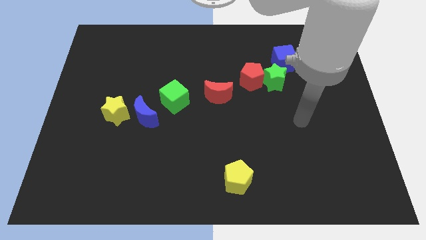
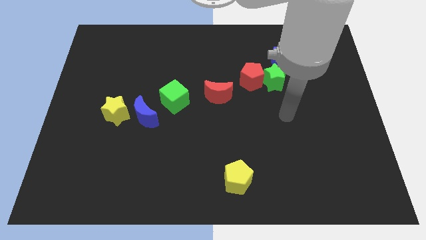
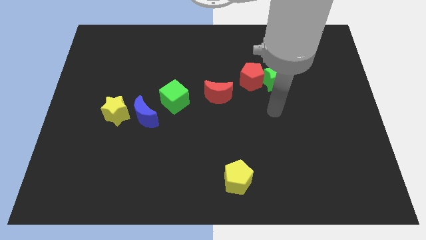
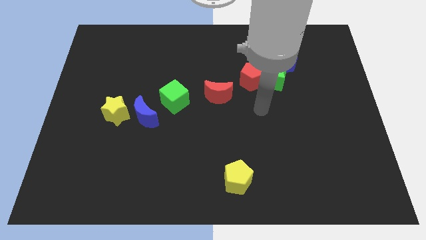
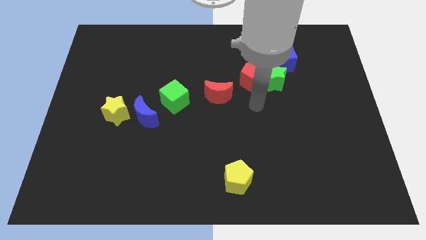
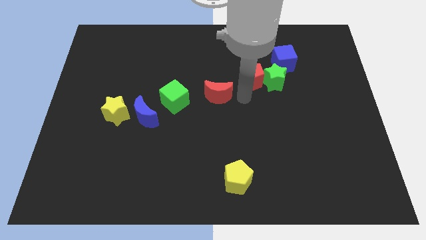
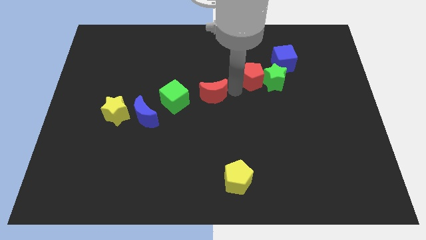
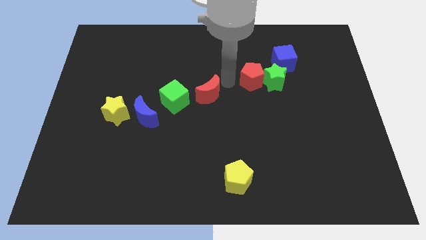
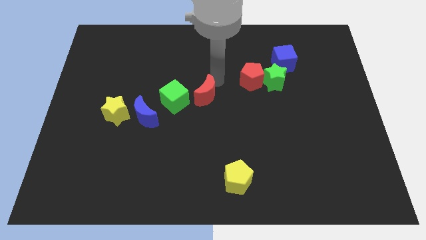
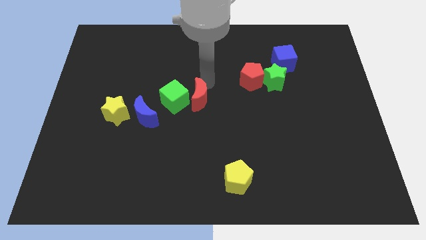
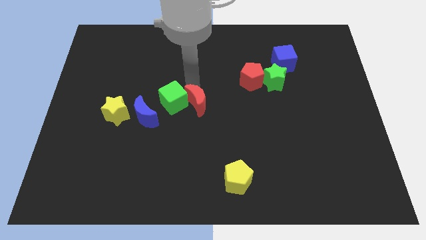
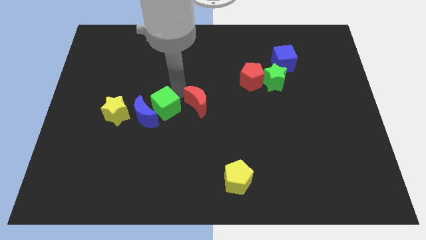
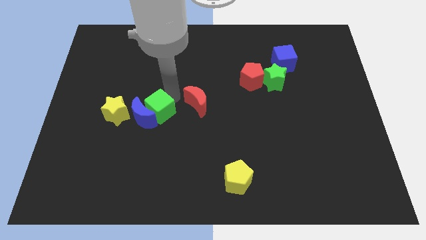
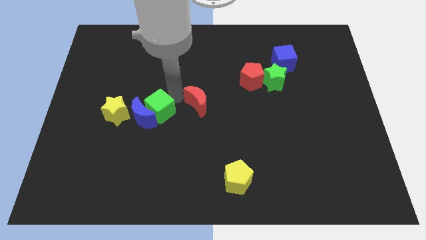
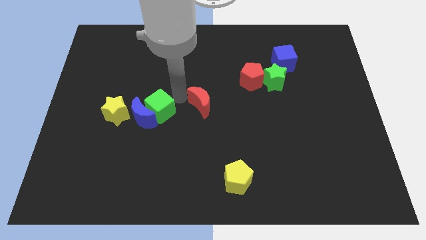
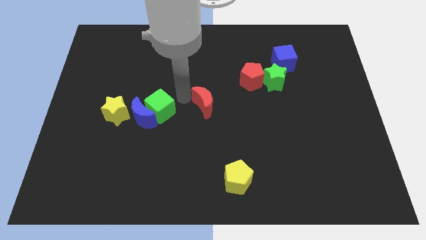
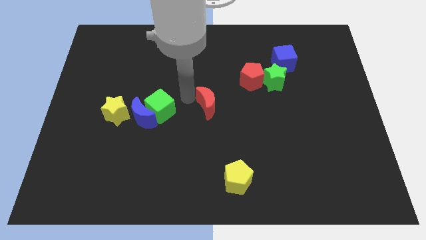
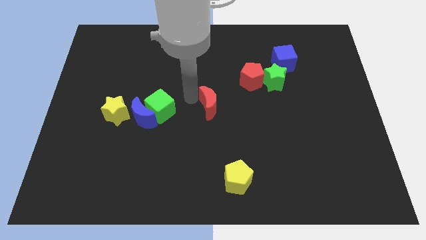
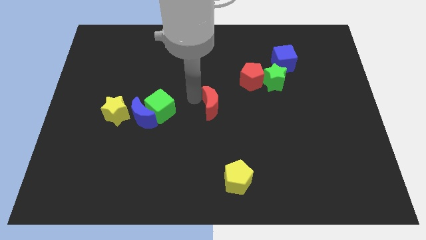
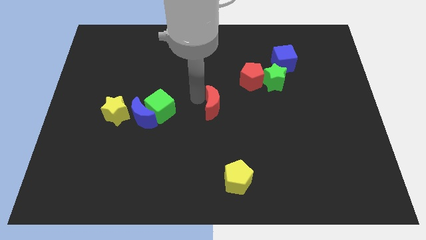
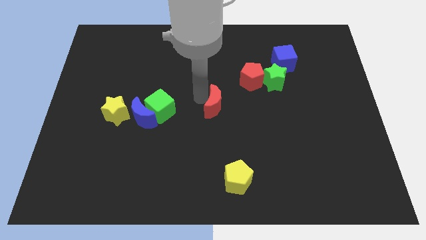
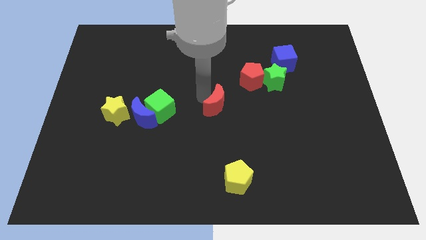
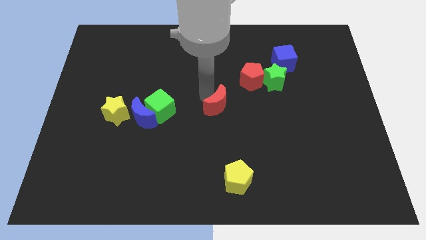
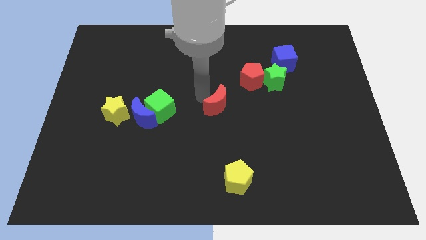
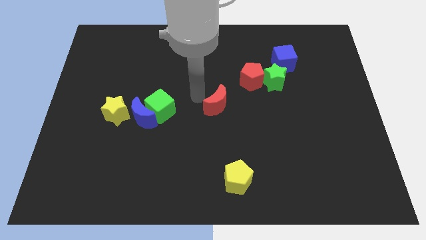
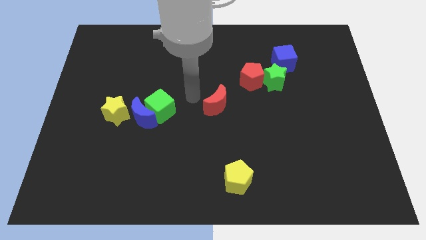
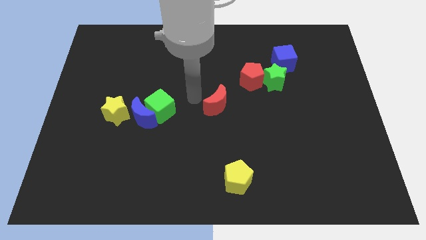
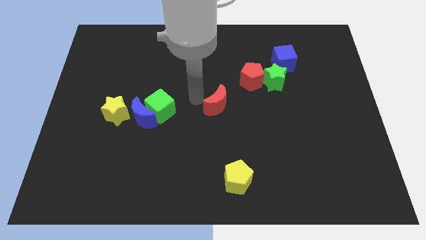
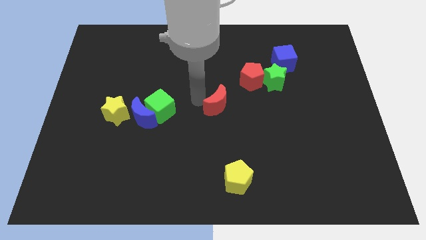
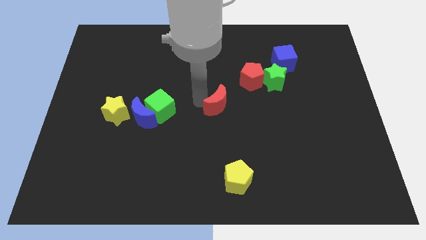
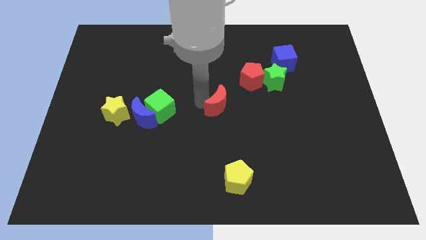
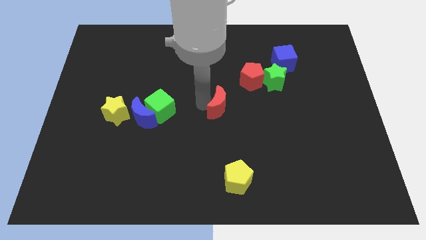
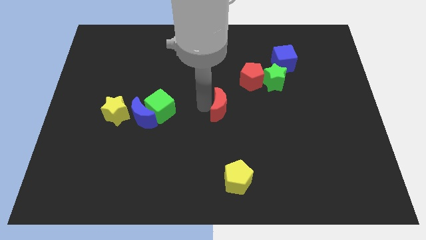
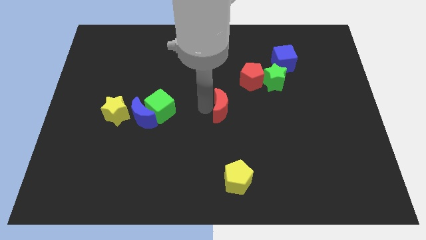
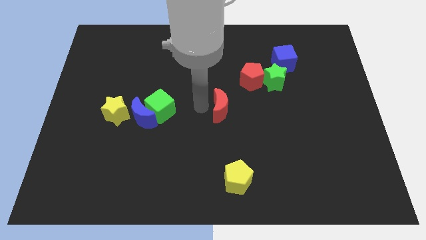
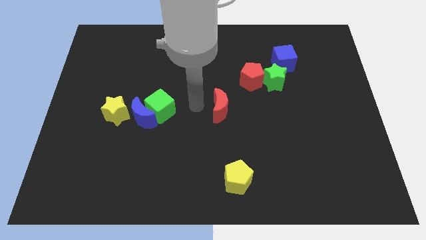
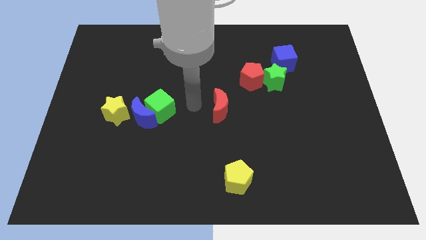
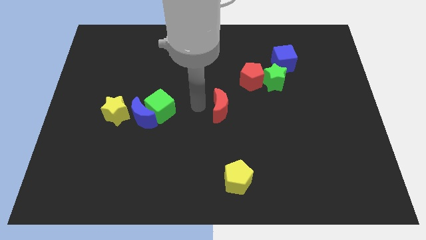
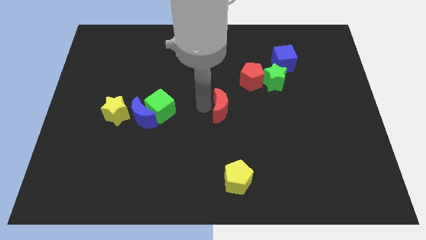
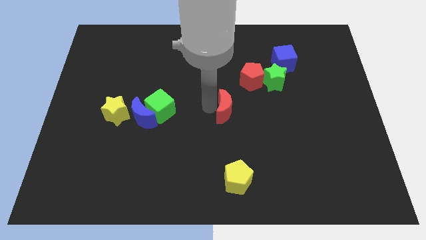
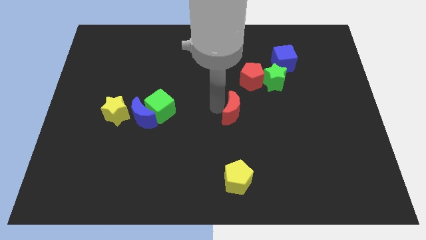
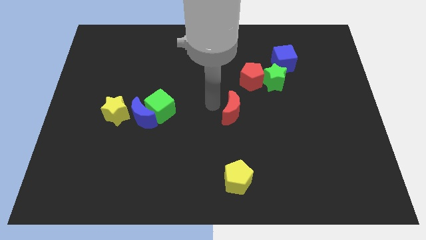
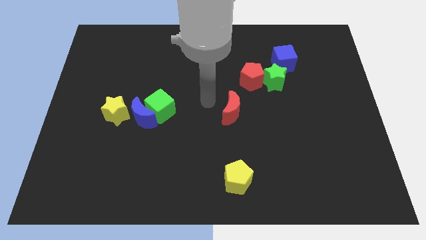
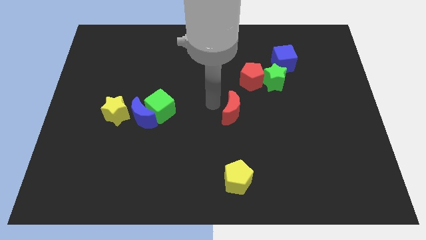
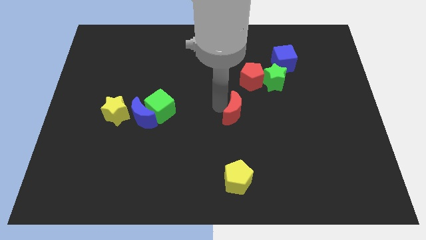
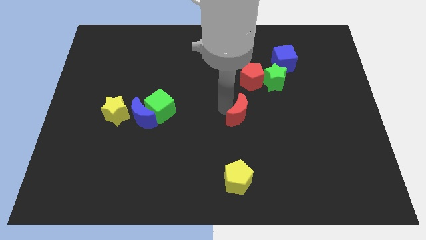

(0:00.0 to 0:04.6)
slightly move the red moon diagonally downwards and right

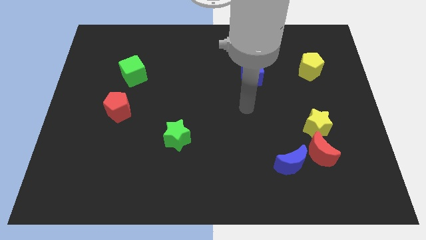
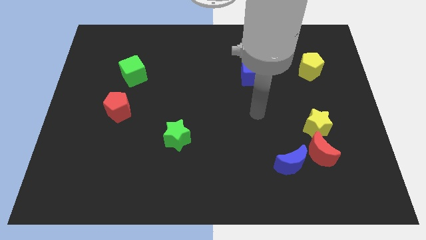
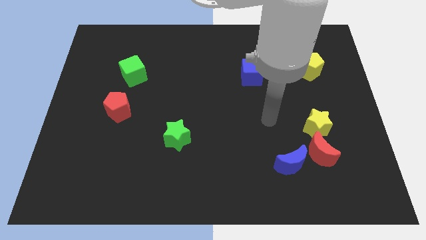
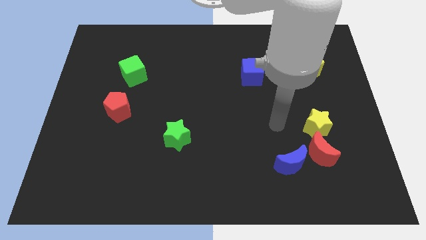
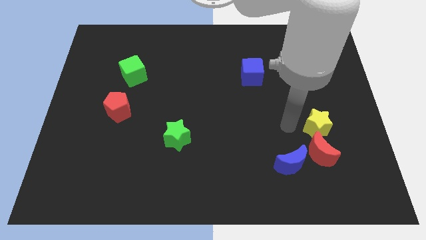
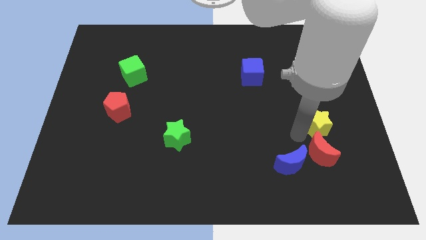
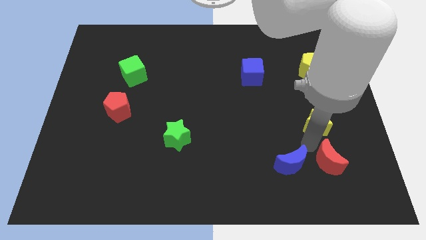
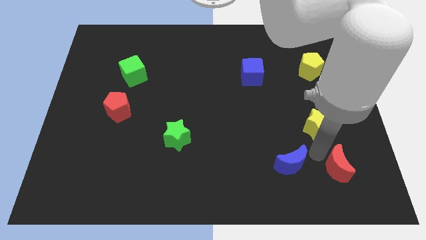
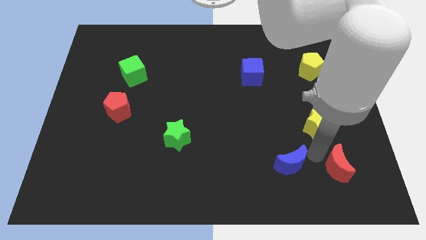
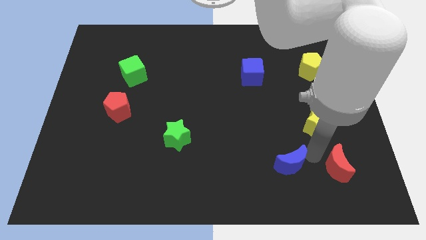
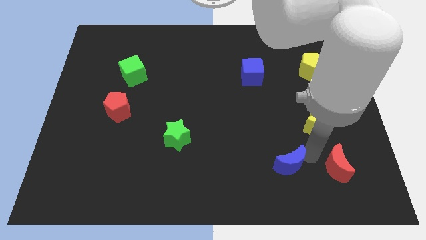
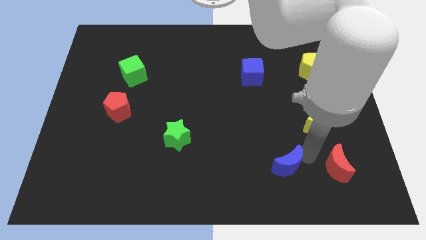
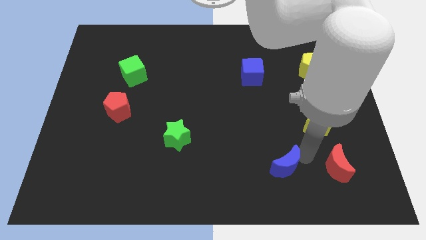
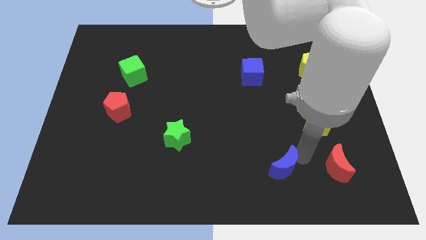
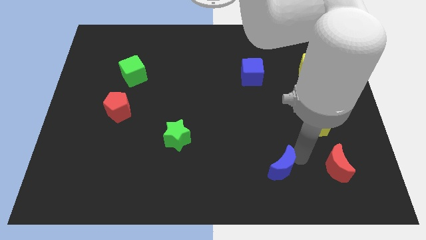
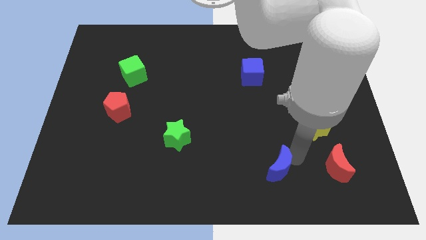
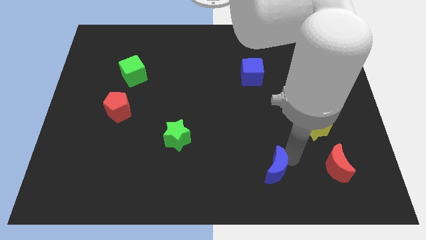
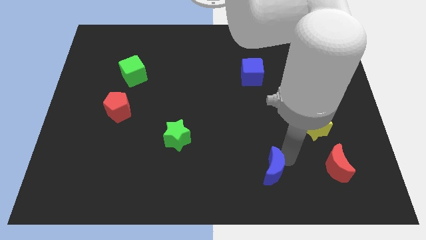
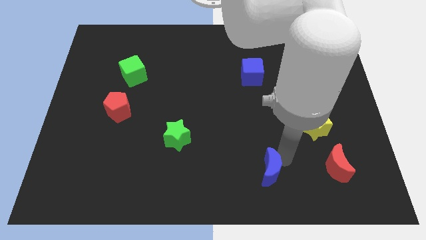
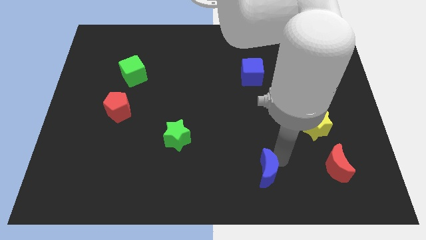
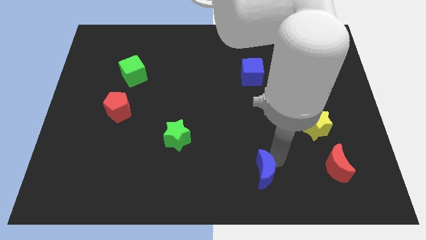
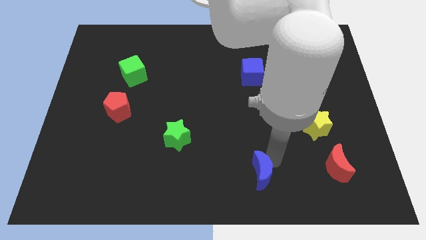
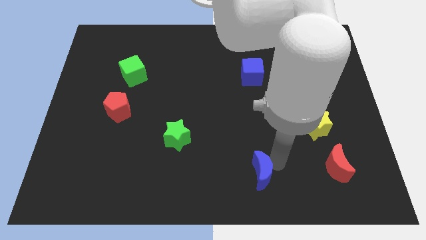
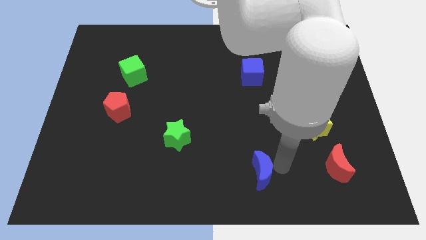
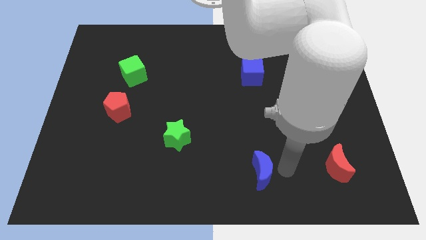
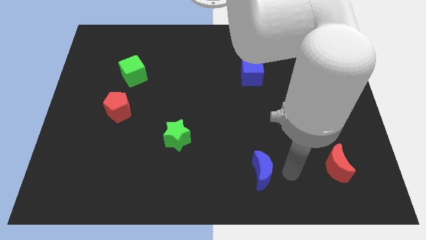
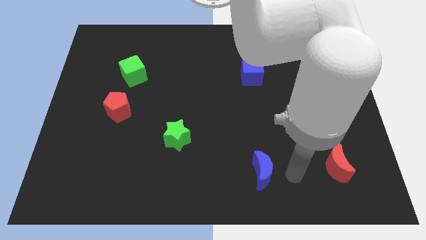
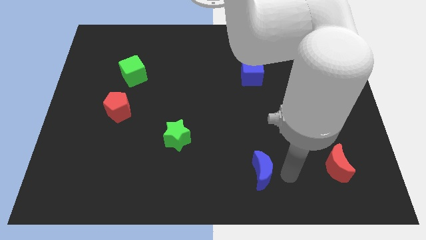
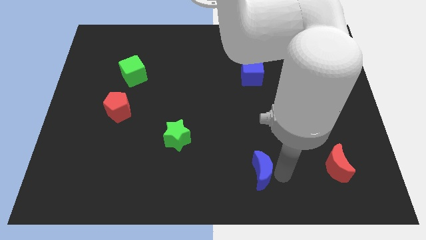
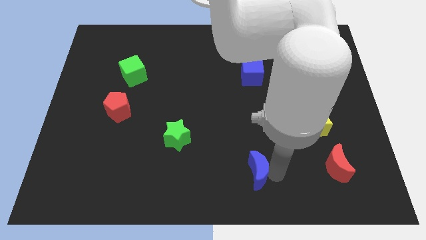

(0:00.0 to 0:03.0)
push the blue moon to the left a bit
